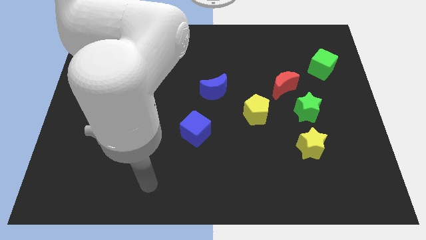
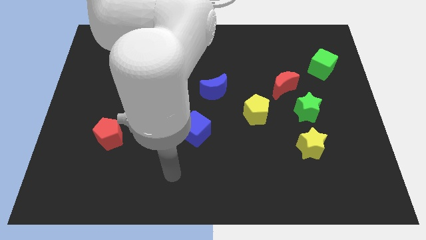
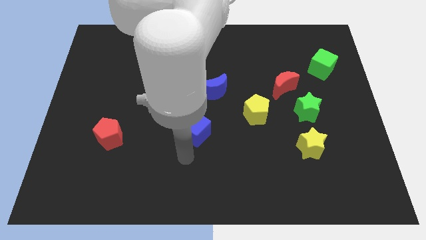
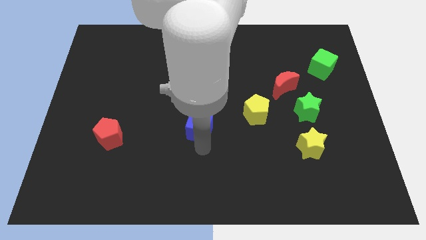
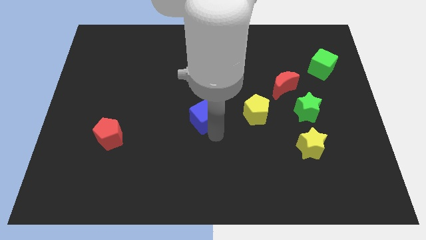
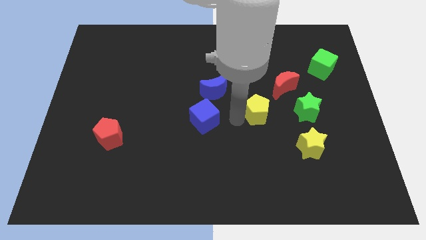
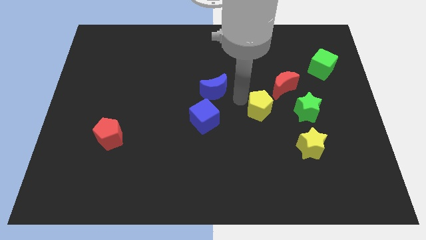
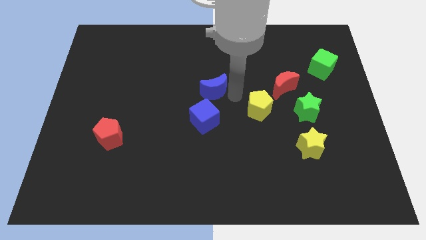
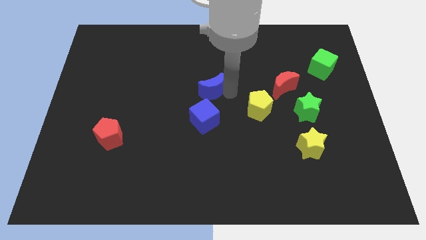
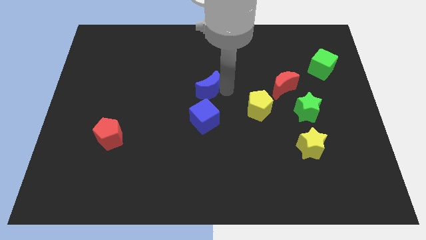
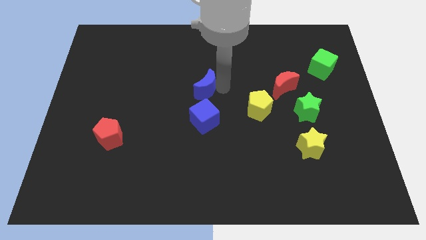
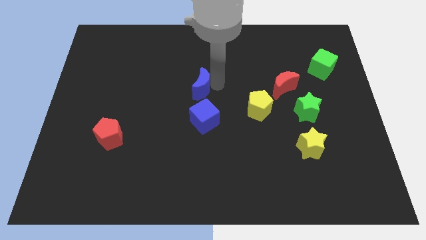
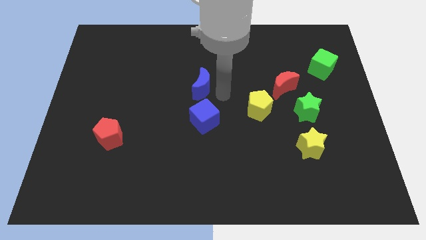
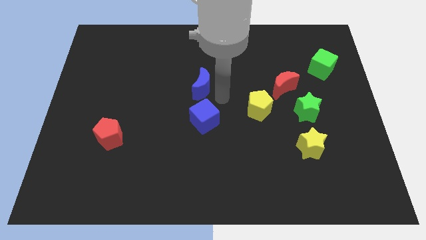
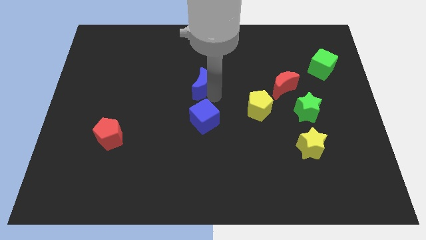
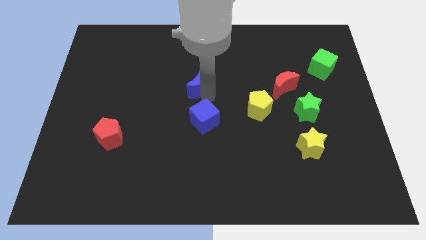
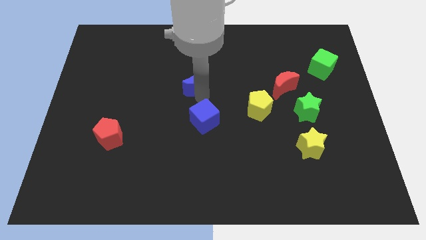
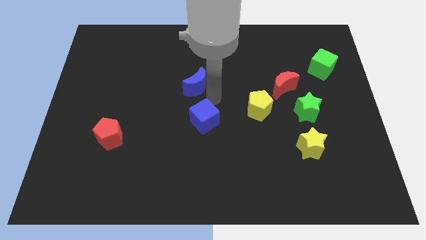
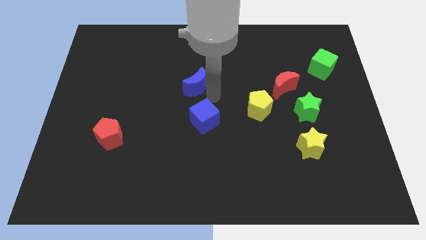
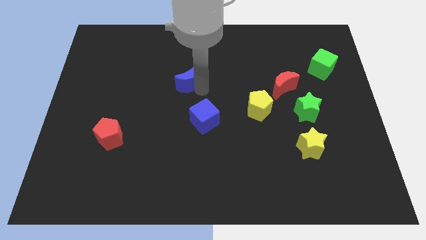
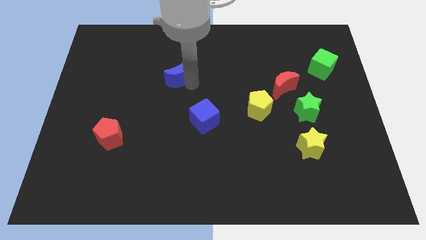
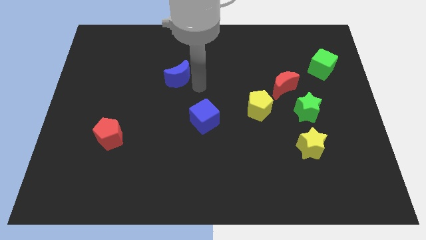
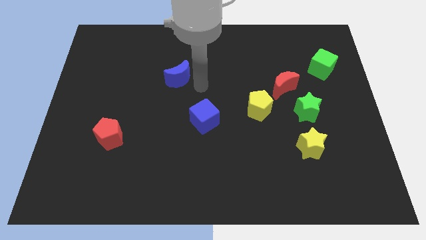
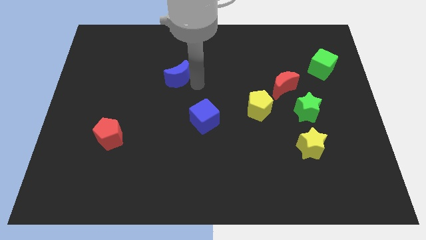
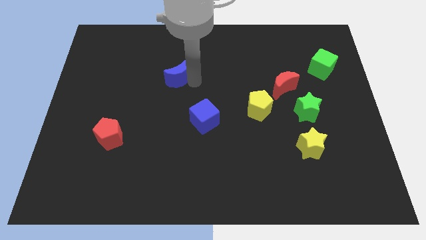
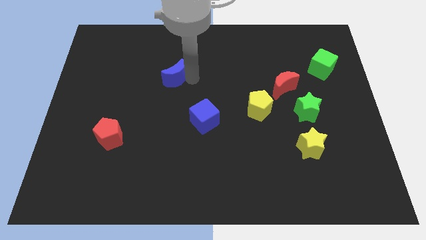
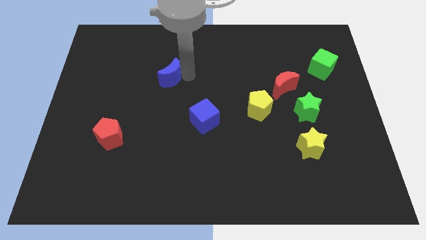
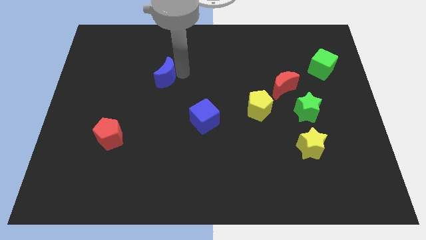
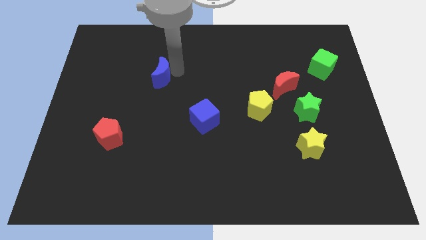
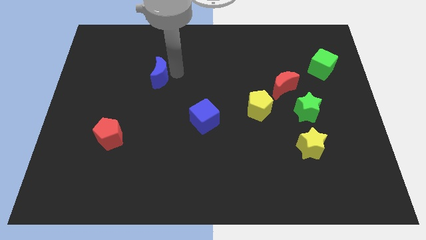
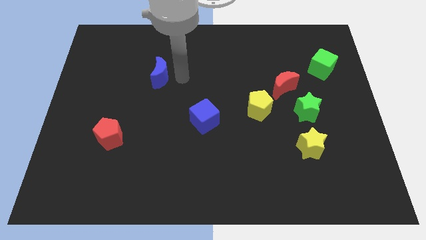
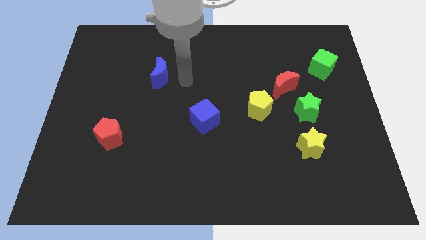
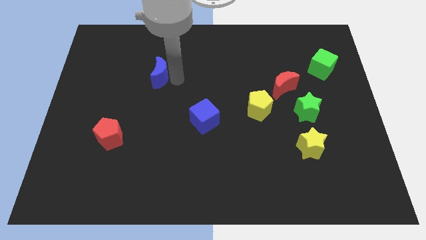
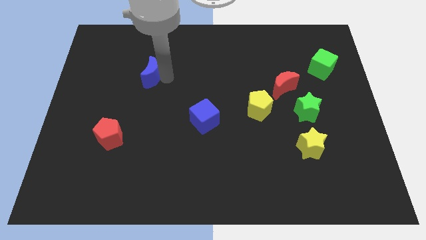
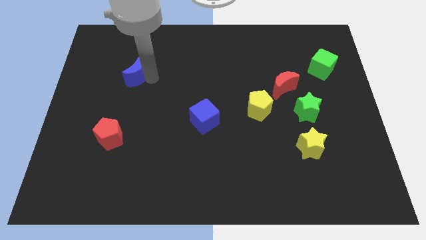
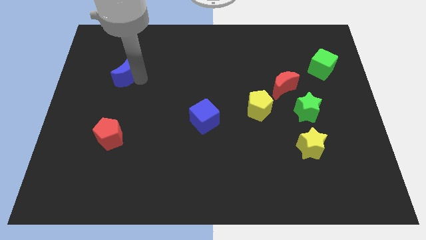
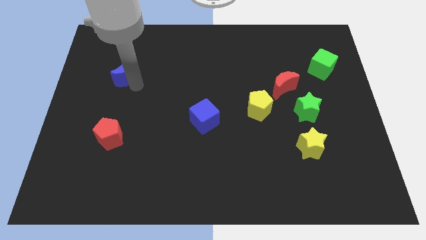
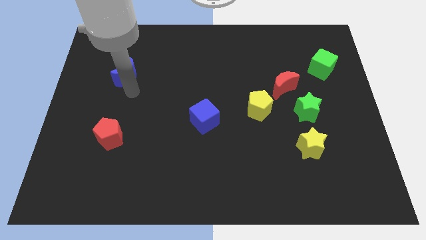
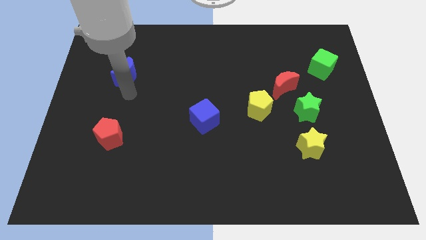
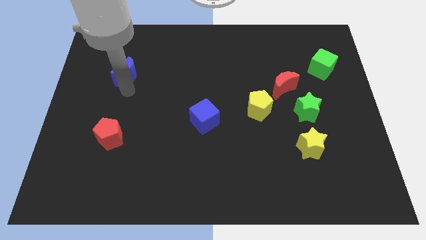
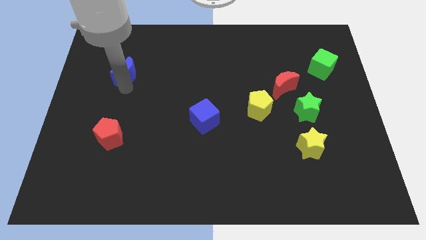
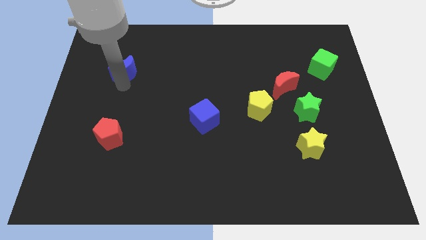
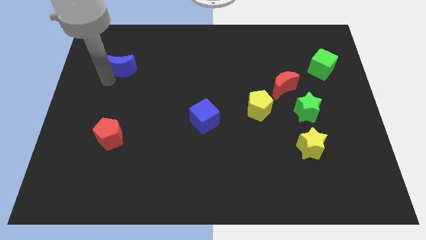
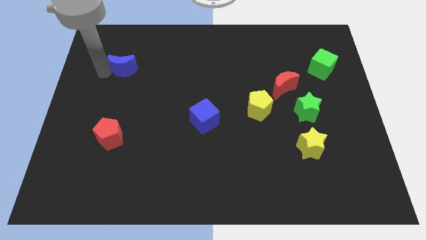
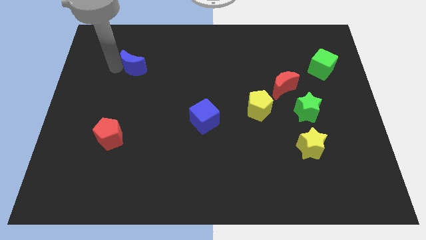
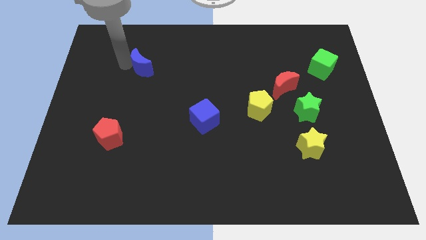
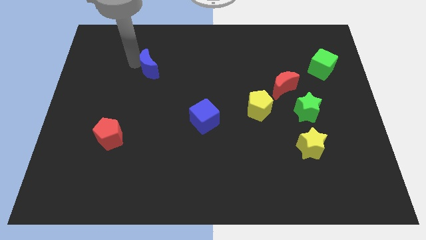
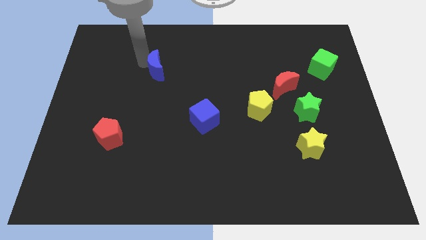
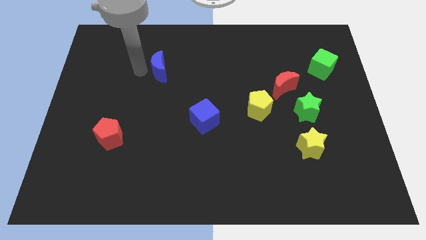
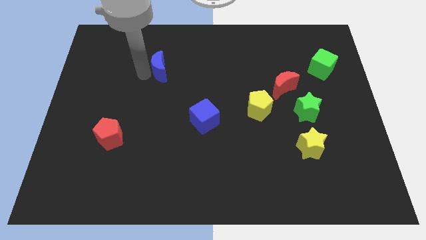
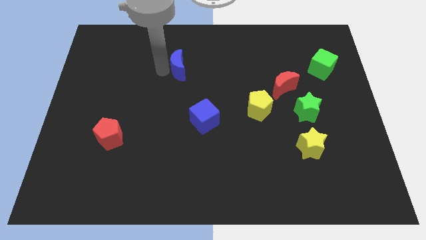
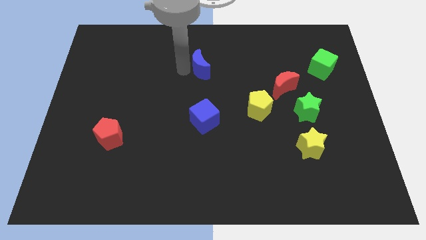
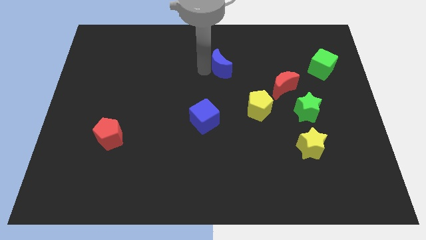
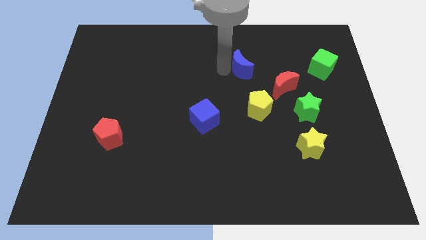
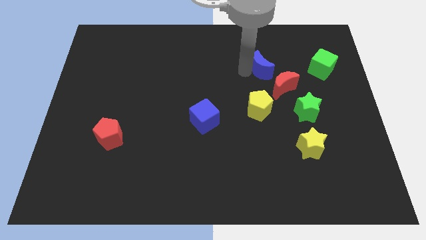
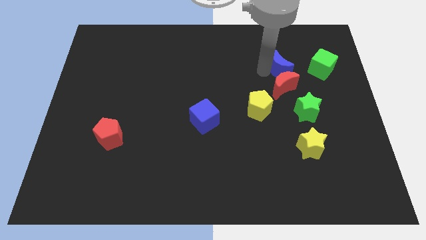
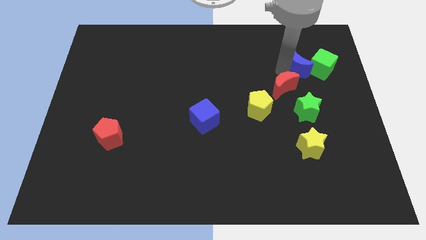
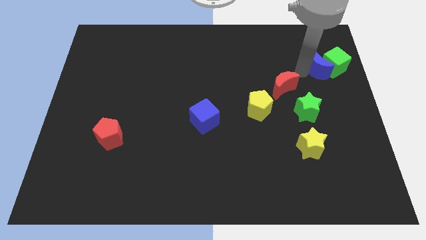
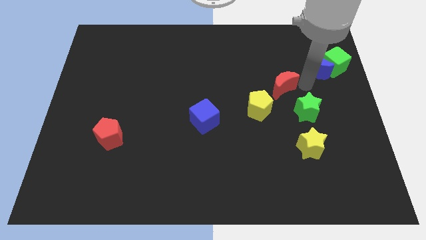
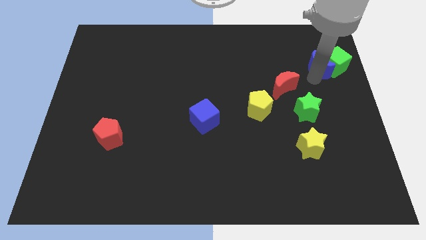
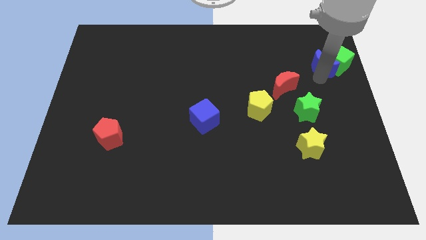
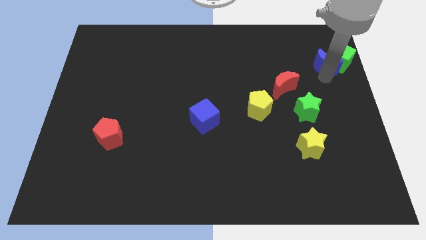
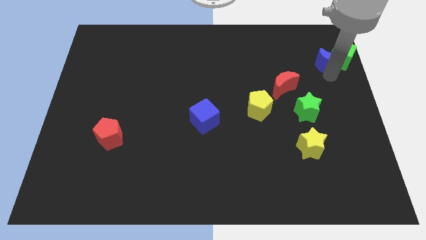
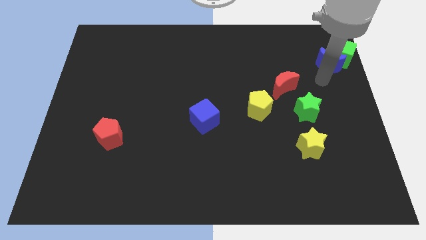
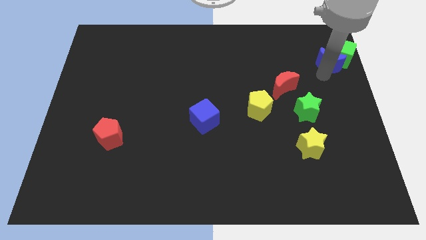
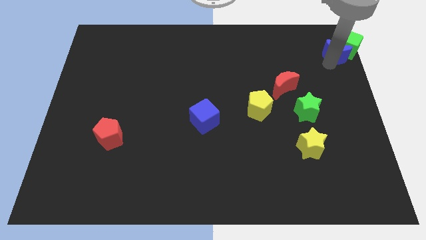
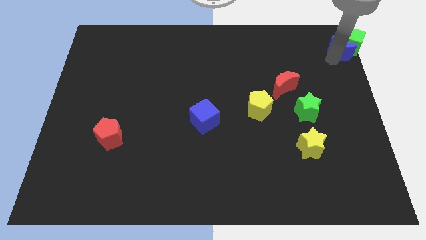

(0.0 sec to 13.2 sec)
move the blue moon to the top right

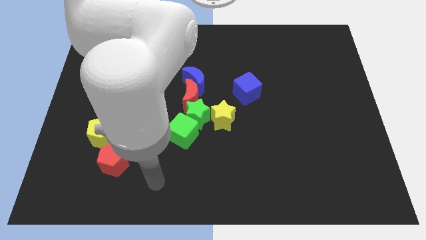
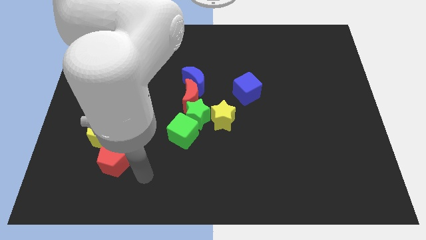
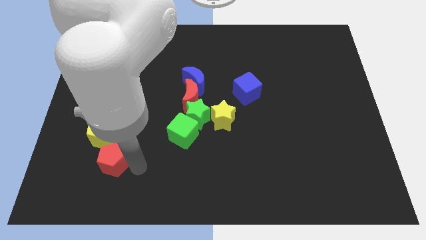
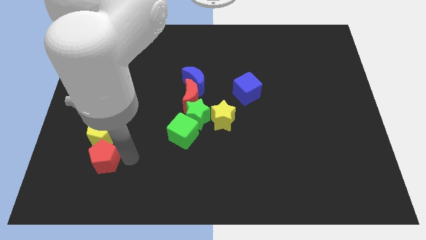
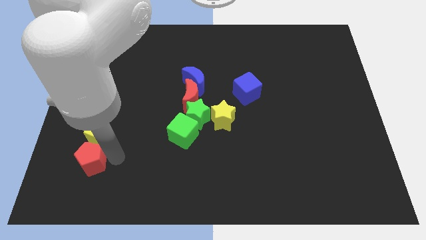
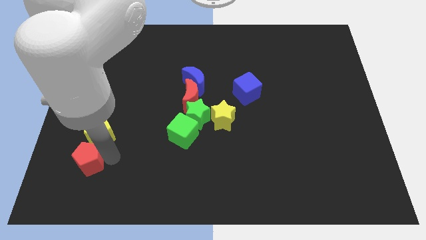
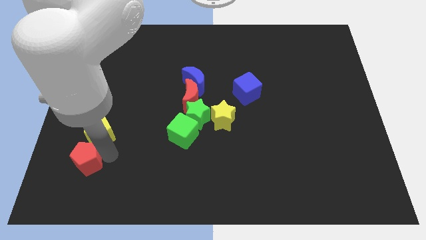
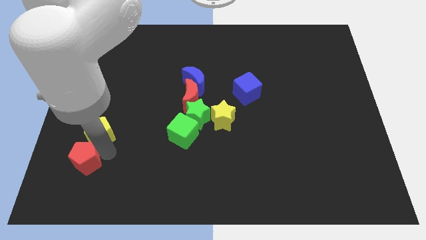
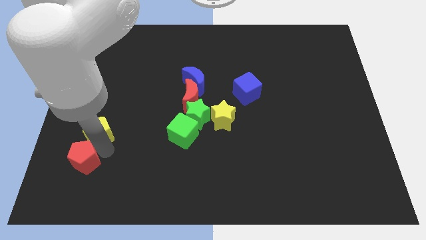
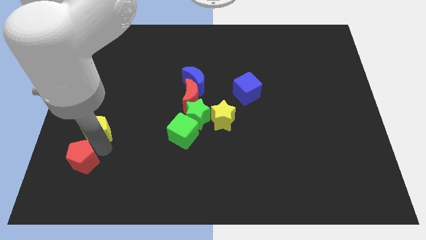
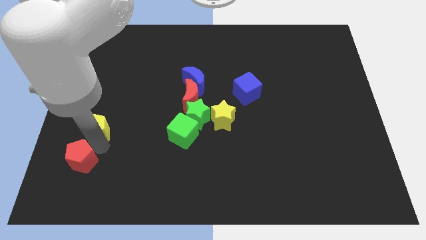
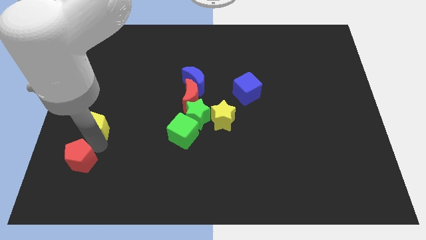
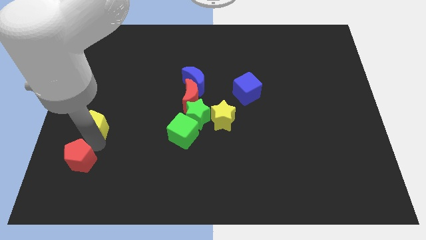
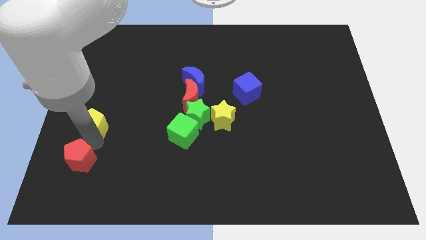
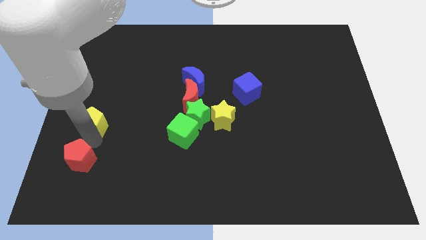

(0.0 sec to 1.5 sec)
push the yellow pentagon to the left side of the board
